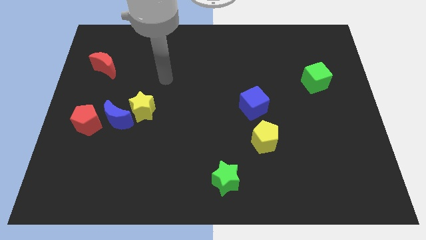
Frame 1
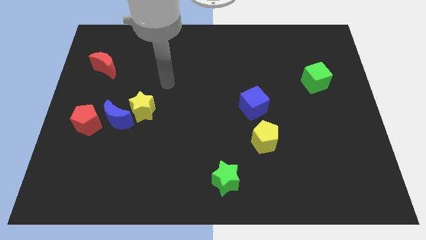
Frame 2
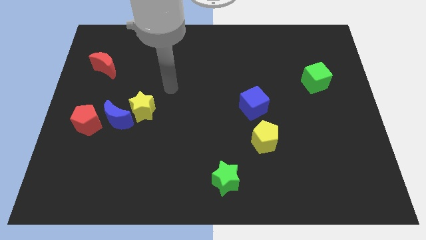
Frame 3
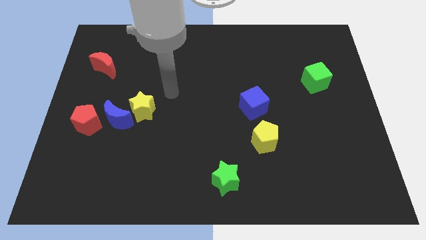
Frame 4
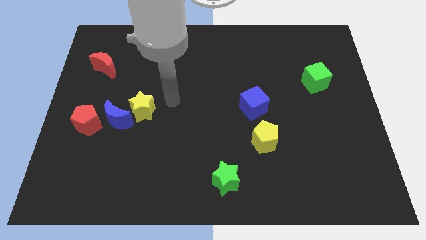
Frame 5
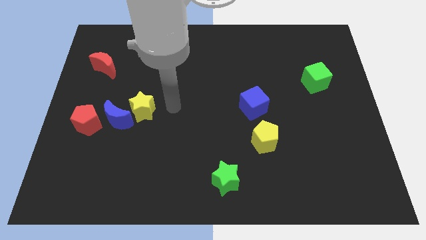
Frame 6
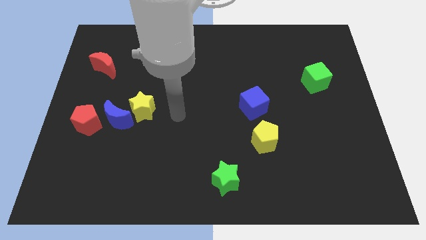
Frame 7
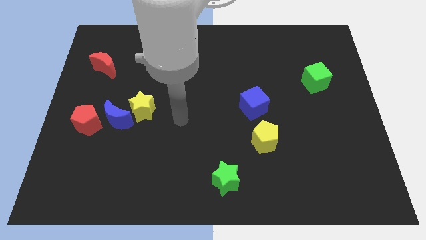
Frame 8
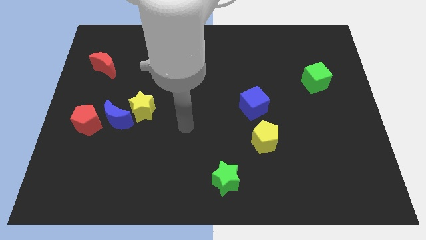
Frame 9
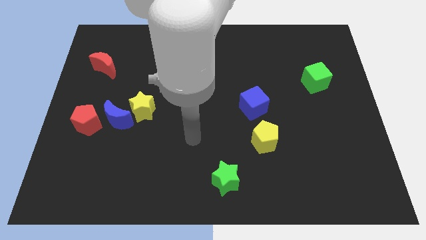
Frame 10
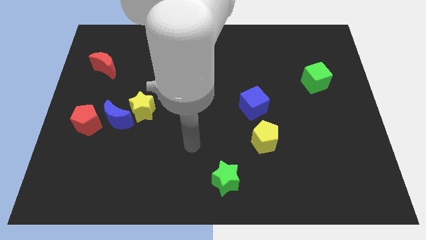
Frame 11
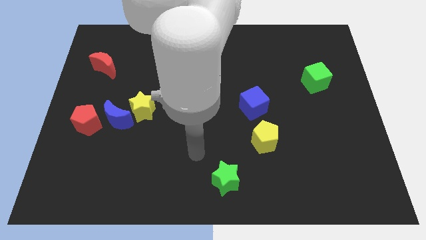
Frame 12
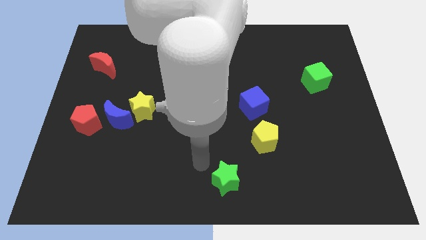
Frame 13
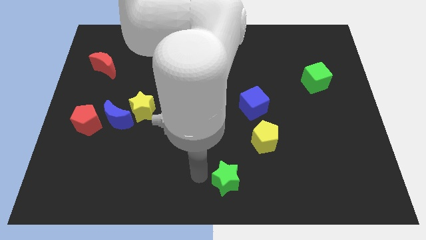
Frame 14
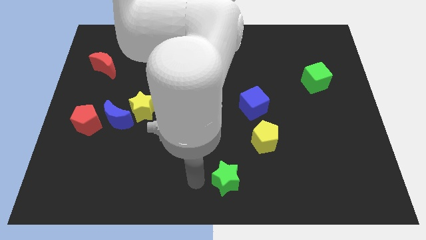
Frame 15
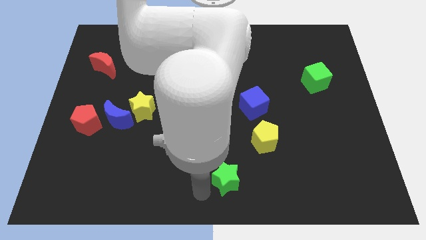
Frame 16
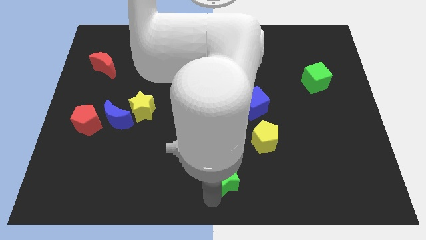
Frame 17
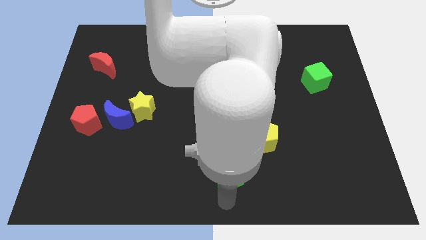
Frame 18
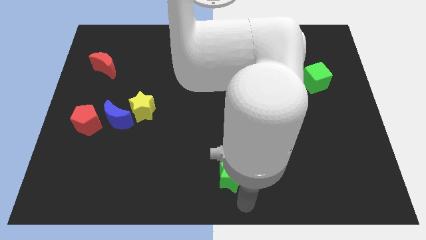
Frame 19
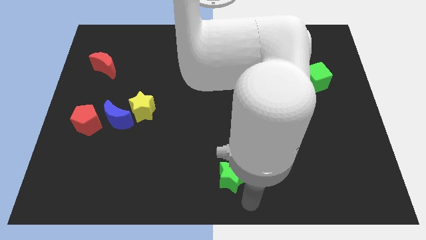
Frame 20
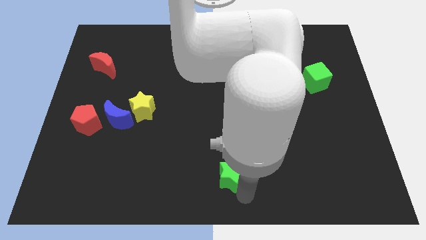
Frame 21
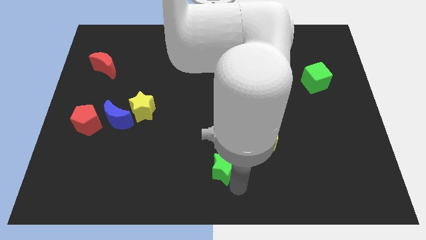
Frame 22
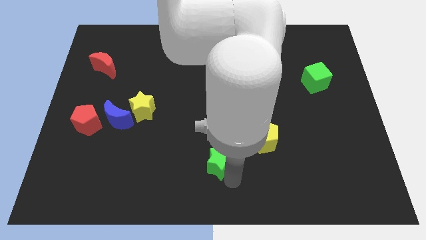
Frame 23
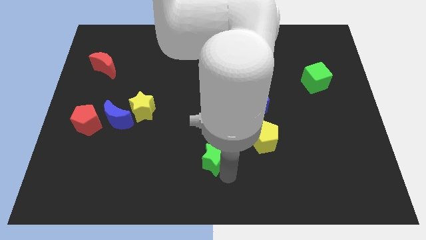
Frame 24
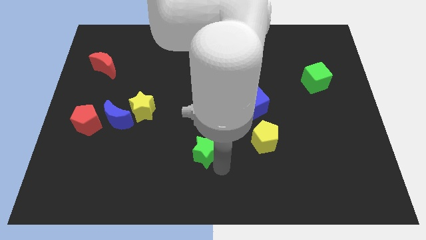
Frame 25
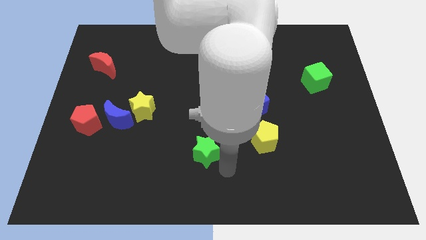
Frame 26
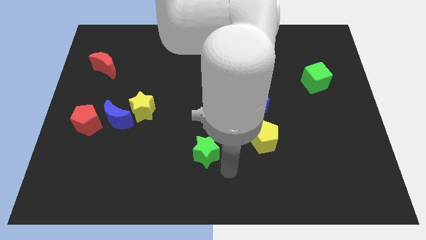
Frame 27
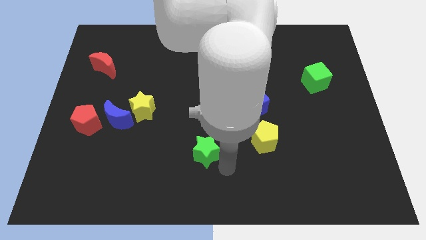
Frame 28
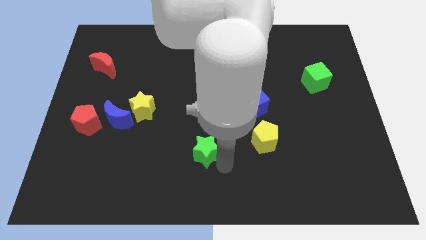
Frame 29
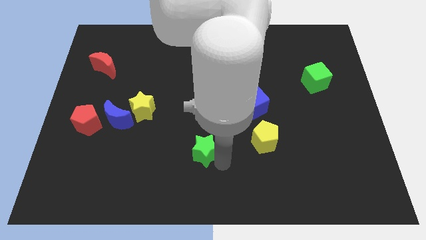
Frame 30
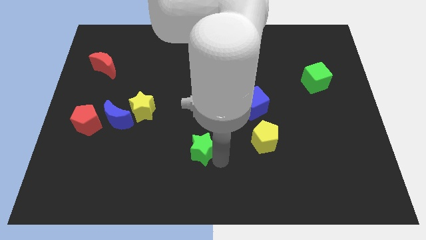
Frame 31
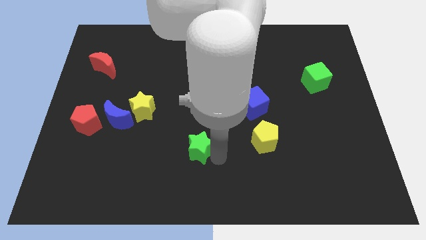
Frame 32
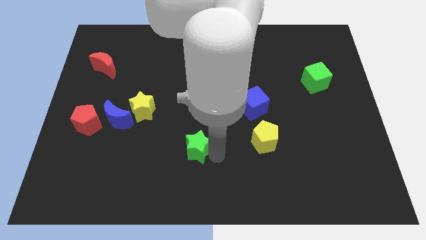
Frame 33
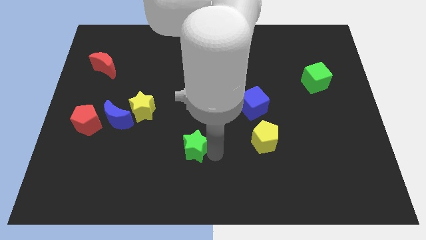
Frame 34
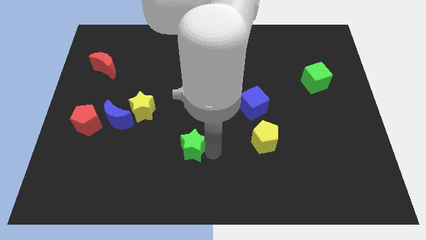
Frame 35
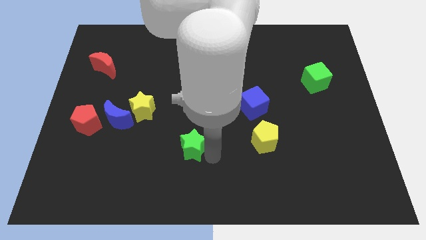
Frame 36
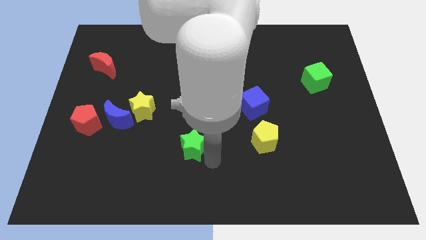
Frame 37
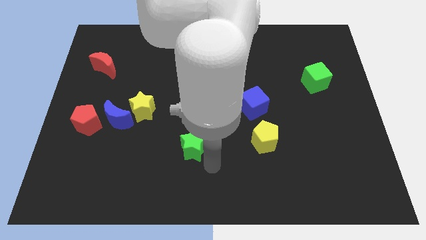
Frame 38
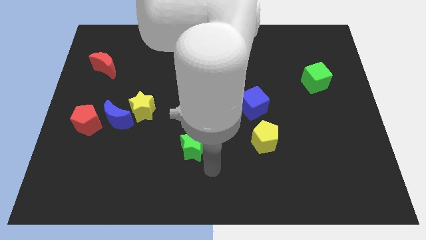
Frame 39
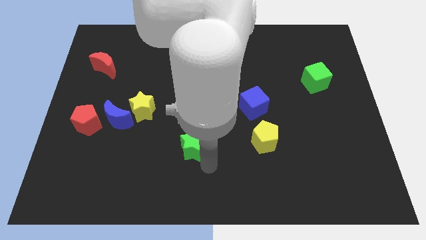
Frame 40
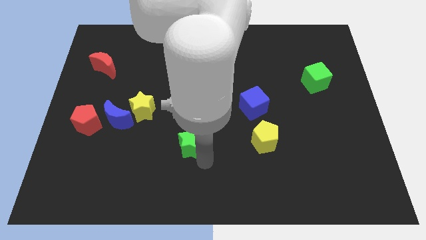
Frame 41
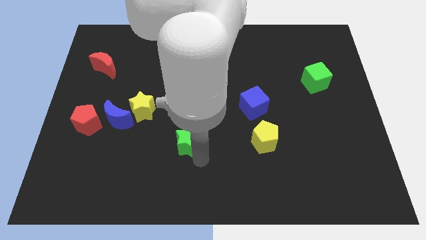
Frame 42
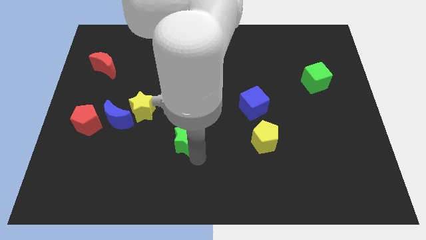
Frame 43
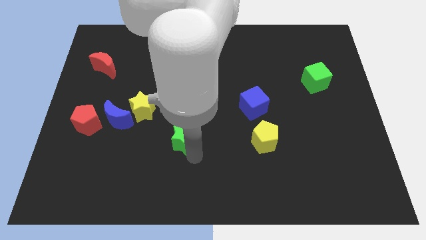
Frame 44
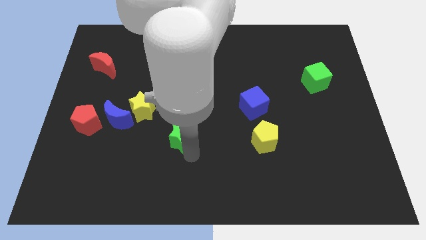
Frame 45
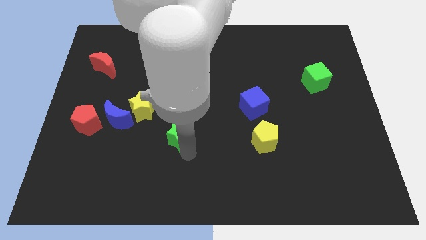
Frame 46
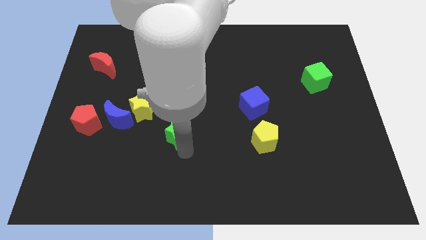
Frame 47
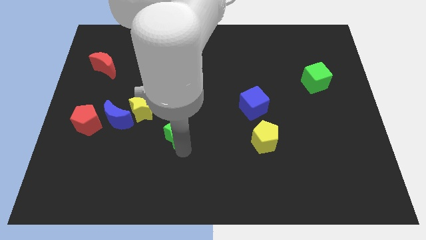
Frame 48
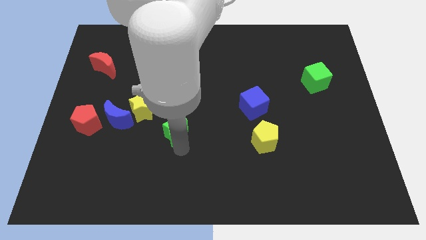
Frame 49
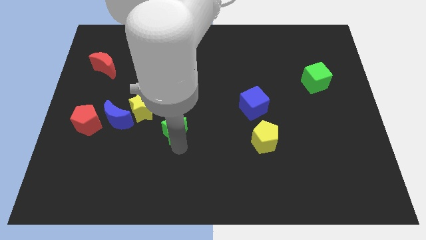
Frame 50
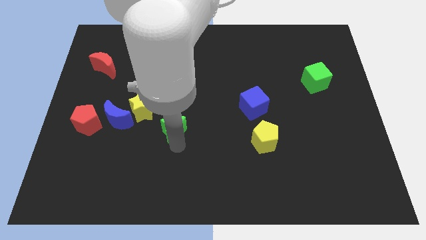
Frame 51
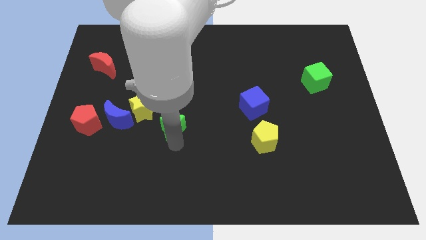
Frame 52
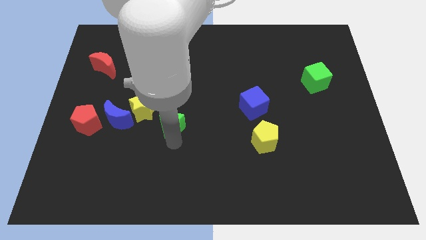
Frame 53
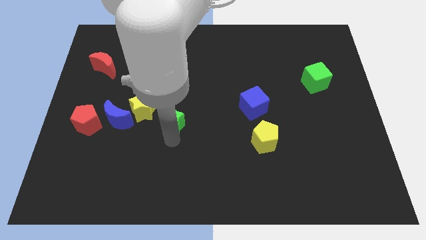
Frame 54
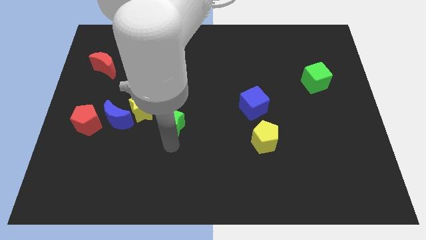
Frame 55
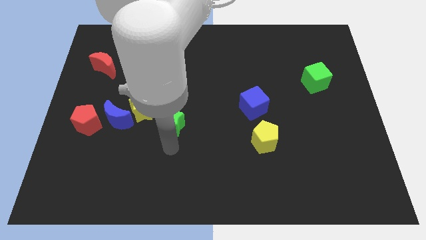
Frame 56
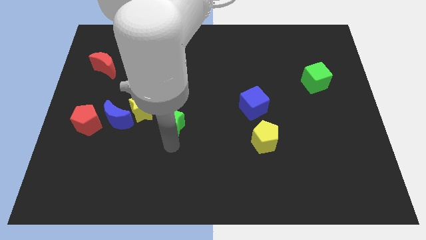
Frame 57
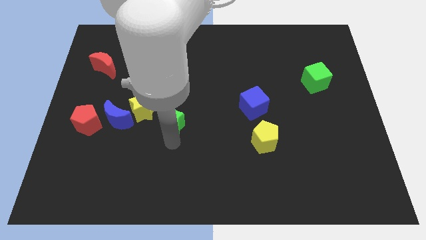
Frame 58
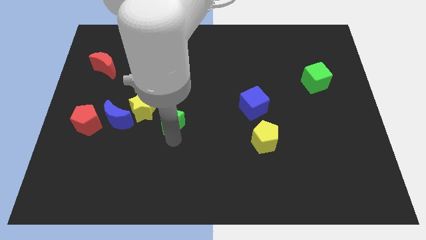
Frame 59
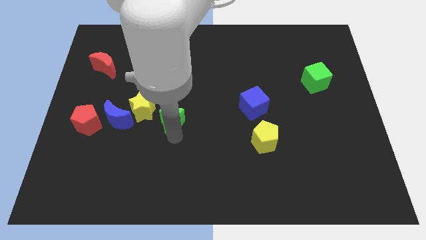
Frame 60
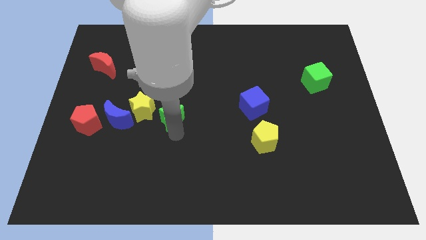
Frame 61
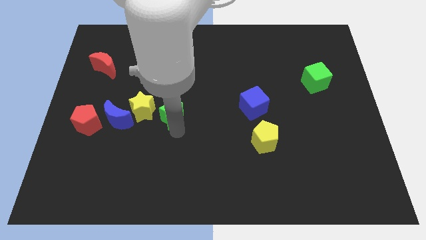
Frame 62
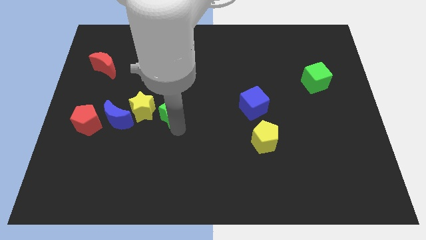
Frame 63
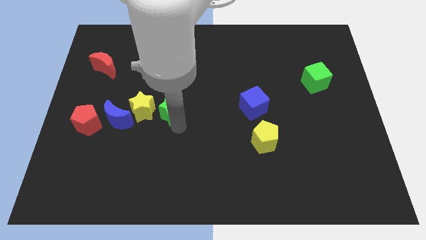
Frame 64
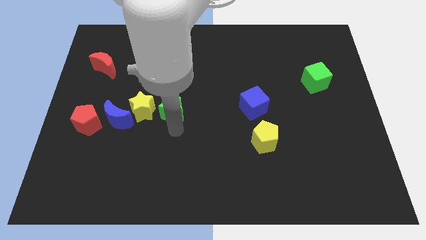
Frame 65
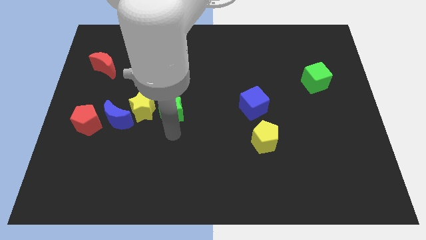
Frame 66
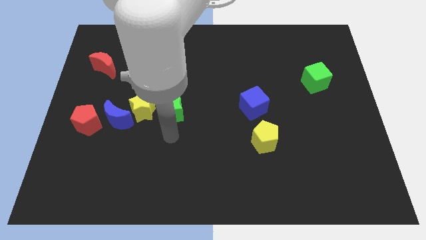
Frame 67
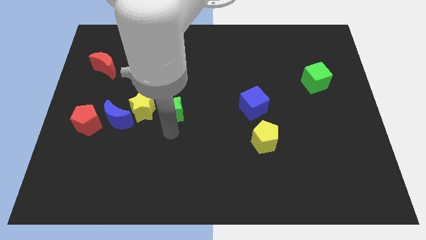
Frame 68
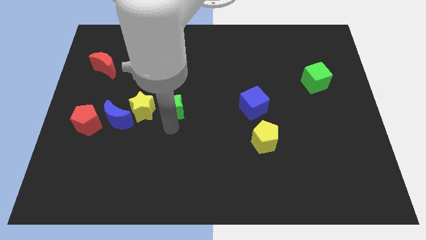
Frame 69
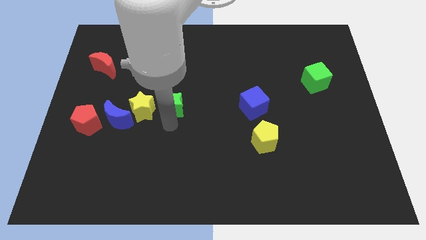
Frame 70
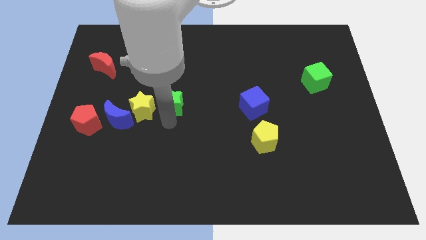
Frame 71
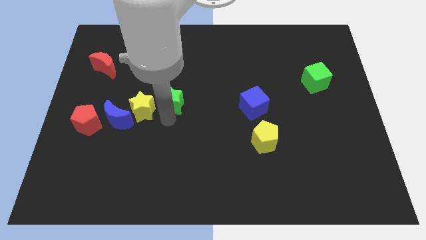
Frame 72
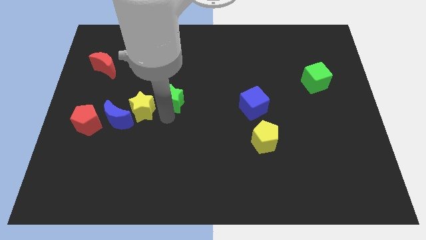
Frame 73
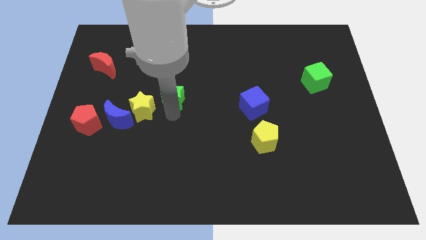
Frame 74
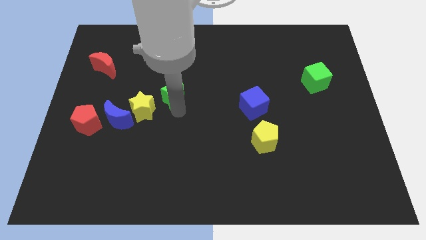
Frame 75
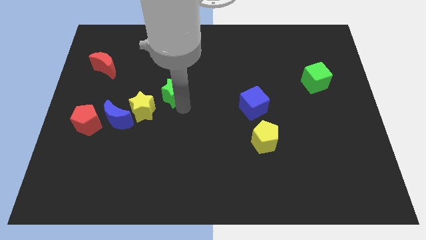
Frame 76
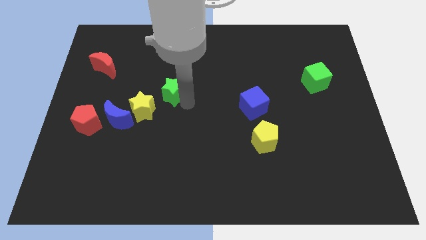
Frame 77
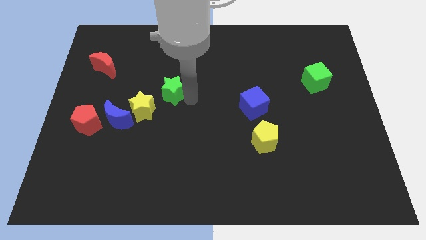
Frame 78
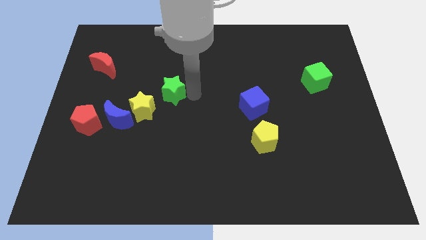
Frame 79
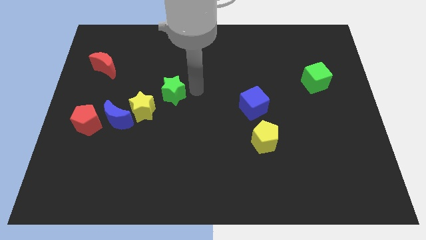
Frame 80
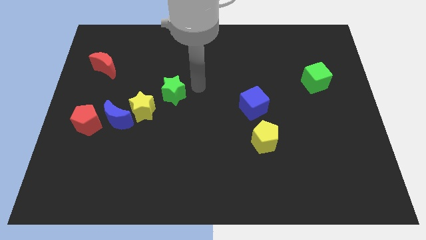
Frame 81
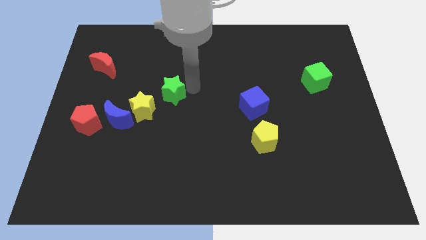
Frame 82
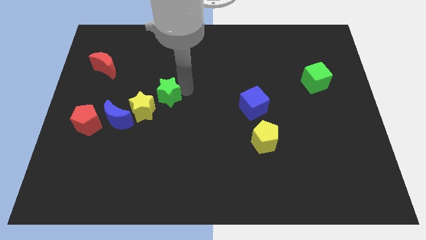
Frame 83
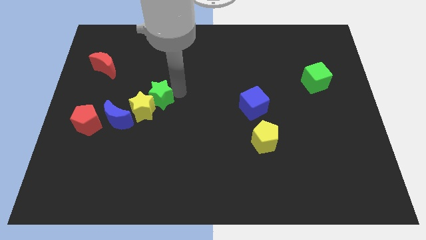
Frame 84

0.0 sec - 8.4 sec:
move the green star diagonally up and to the right of the blue moon
